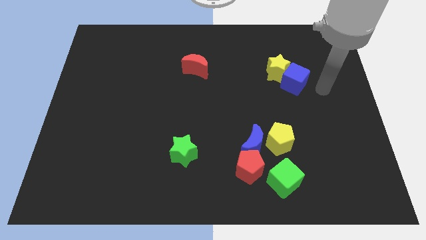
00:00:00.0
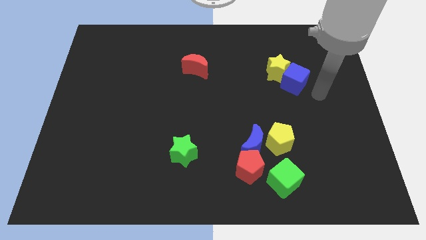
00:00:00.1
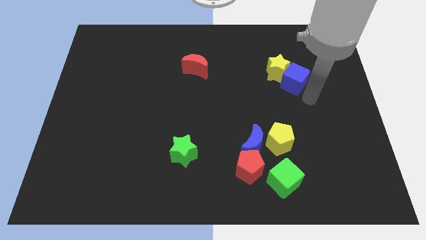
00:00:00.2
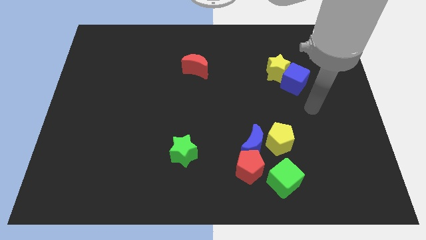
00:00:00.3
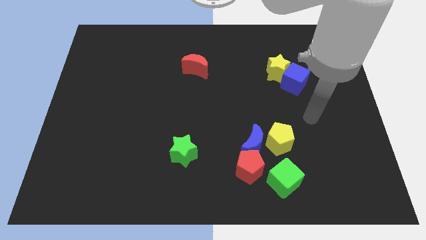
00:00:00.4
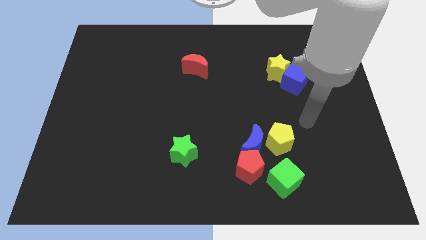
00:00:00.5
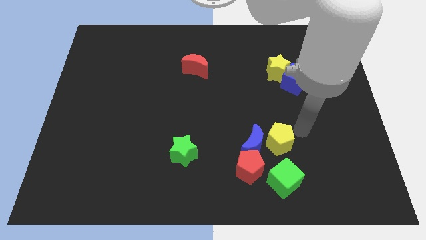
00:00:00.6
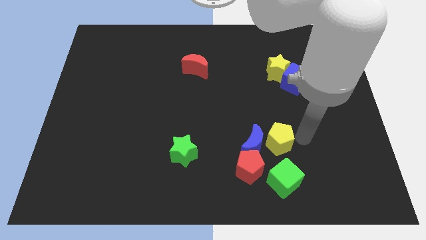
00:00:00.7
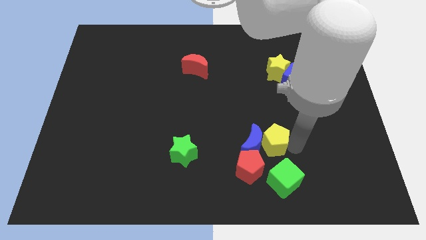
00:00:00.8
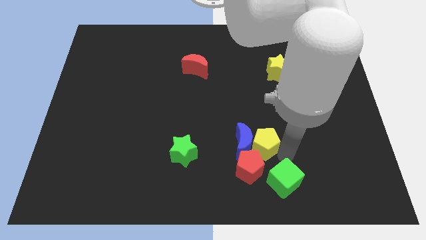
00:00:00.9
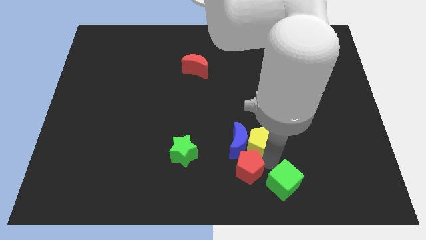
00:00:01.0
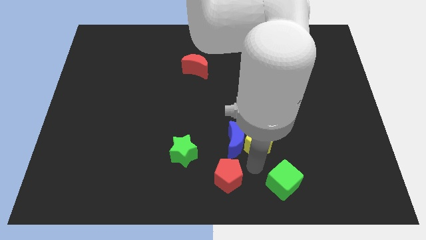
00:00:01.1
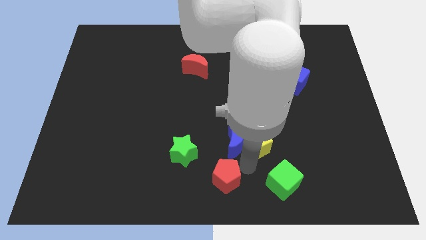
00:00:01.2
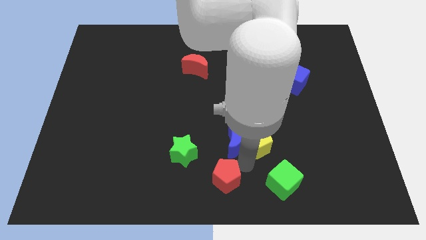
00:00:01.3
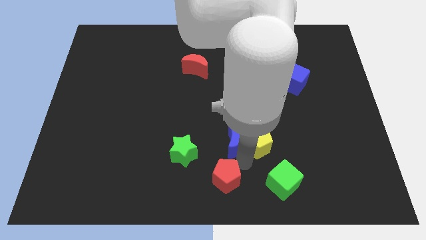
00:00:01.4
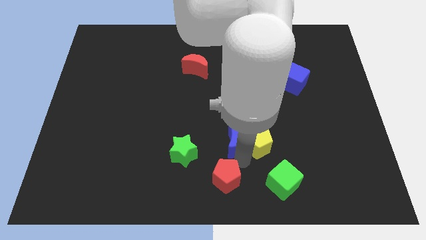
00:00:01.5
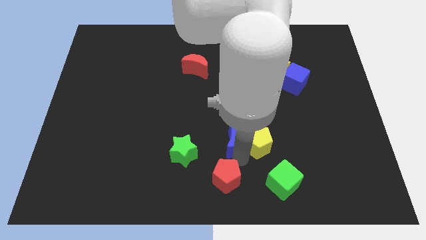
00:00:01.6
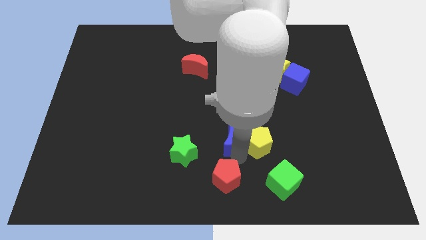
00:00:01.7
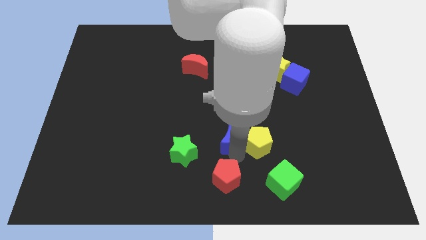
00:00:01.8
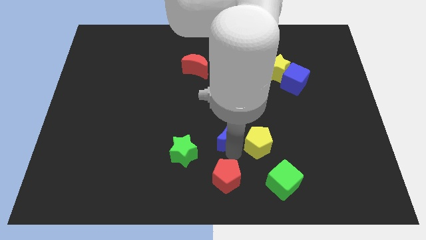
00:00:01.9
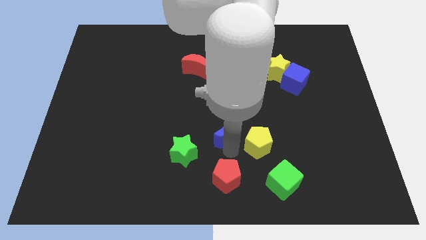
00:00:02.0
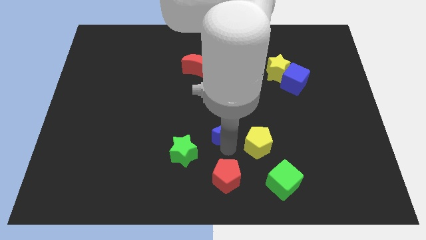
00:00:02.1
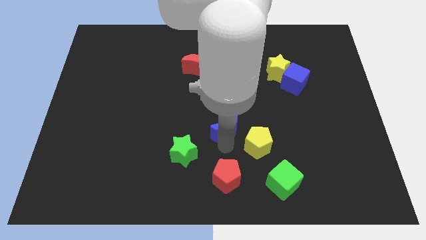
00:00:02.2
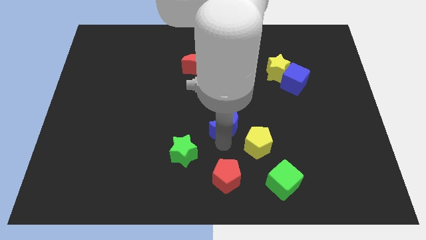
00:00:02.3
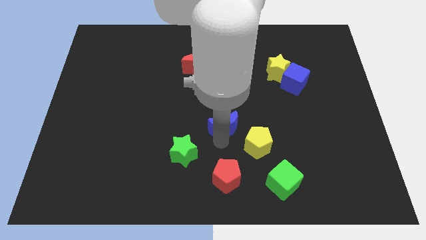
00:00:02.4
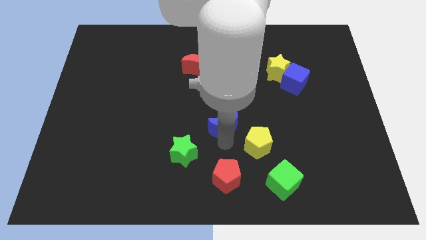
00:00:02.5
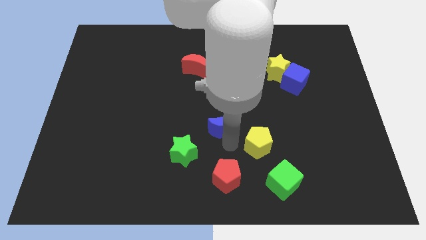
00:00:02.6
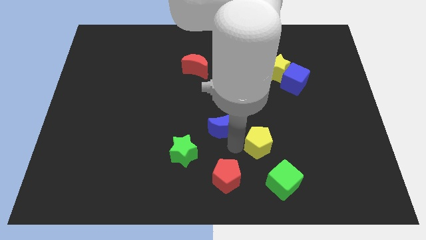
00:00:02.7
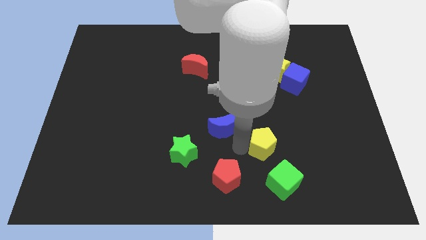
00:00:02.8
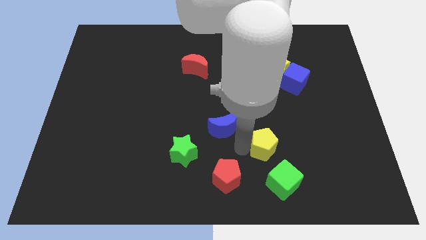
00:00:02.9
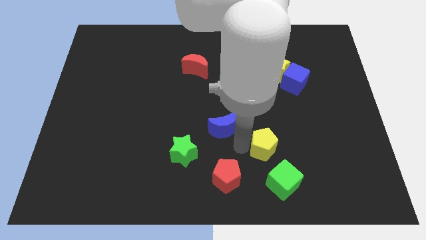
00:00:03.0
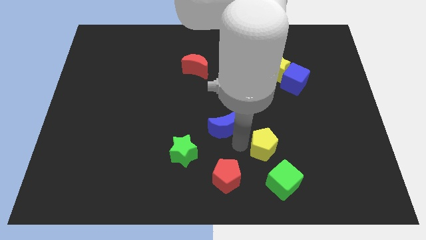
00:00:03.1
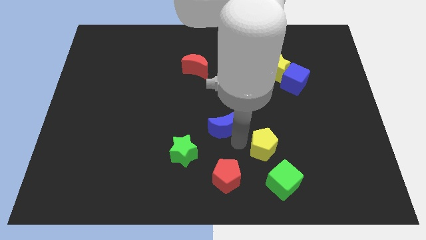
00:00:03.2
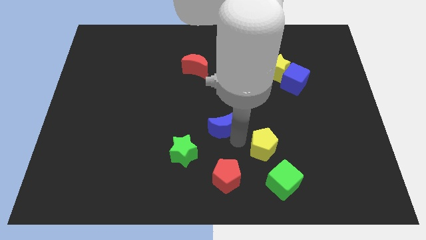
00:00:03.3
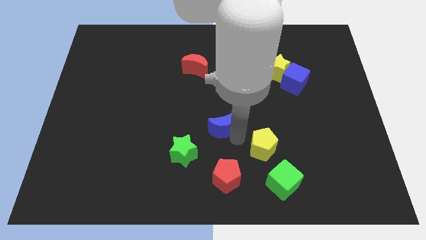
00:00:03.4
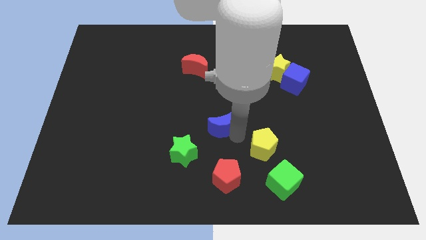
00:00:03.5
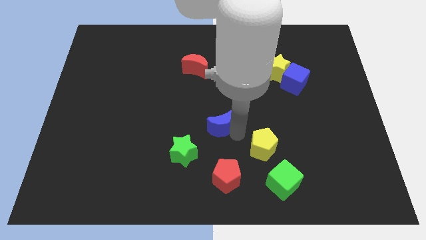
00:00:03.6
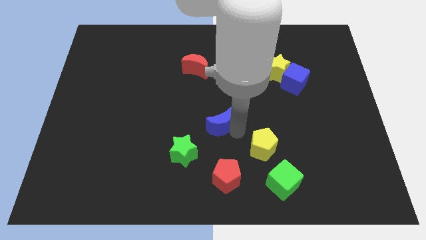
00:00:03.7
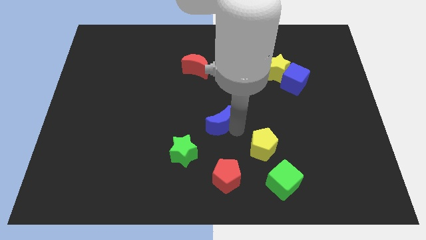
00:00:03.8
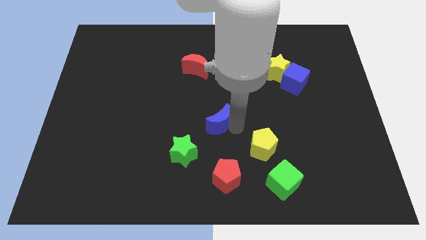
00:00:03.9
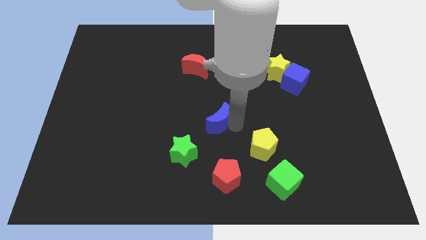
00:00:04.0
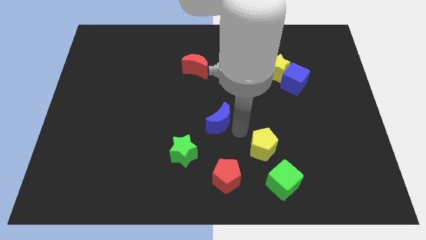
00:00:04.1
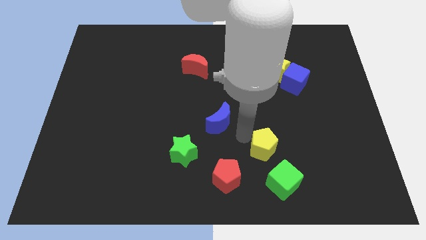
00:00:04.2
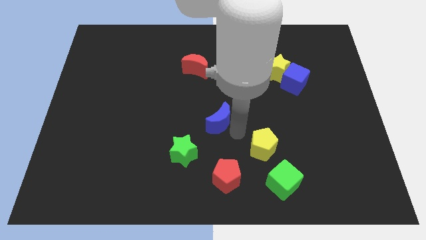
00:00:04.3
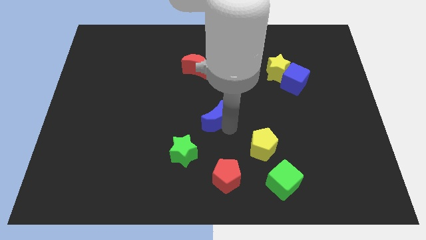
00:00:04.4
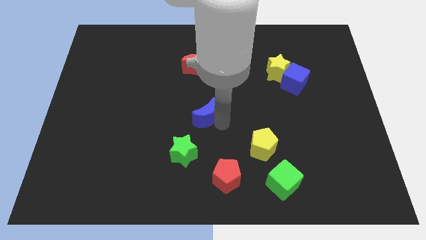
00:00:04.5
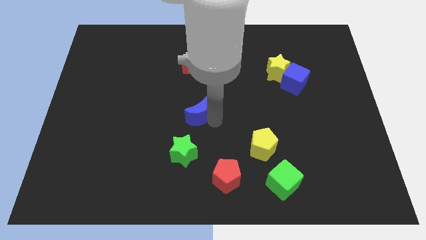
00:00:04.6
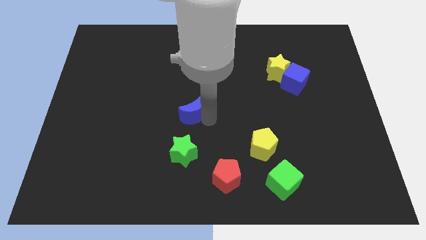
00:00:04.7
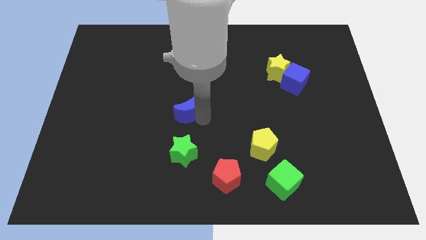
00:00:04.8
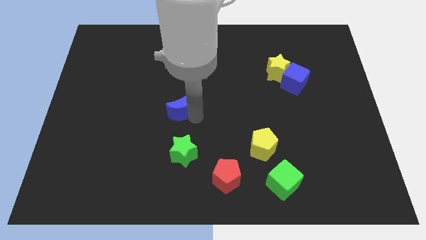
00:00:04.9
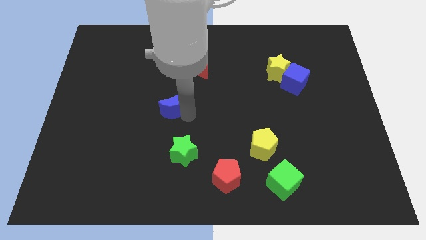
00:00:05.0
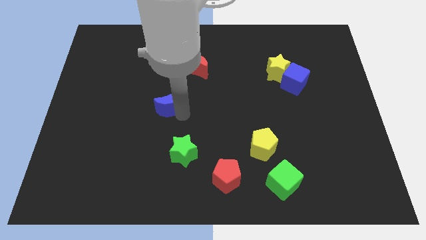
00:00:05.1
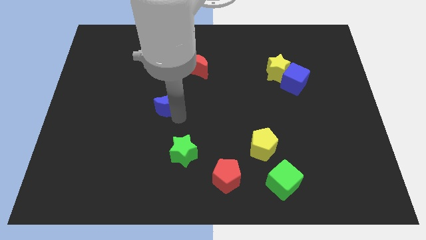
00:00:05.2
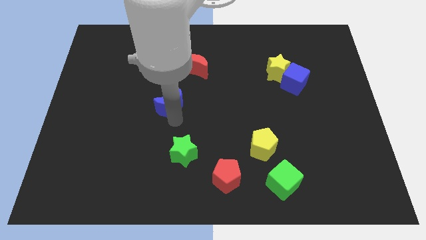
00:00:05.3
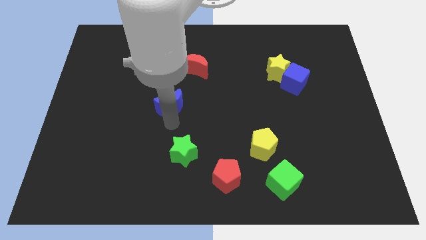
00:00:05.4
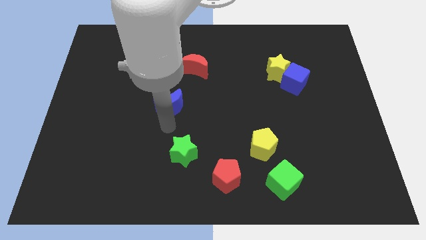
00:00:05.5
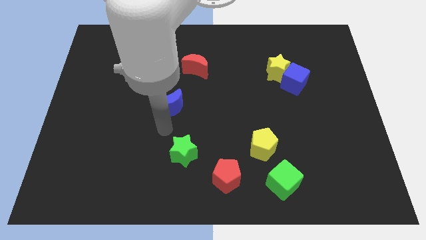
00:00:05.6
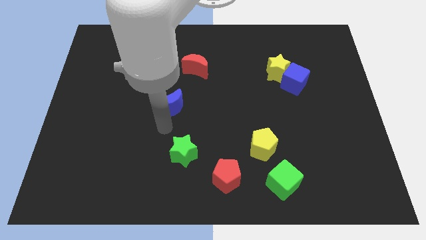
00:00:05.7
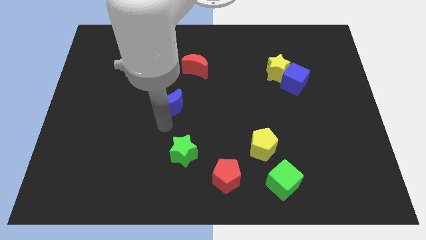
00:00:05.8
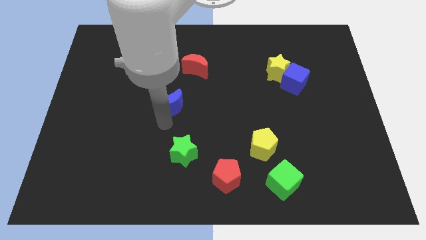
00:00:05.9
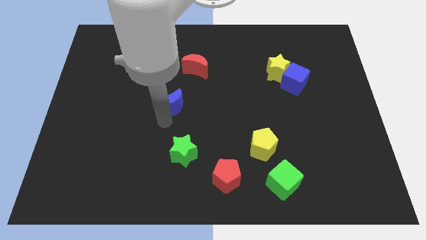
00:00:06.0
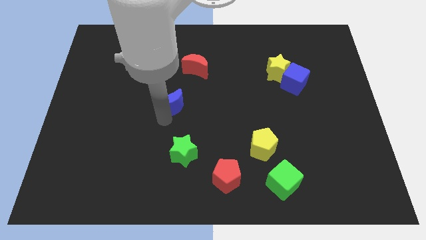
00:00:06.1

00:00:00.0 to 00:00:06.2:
move the blue moon up and then left

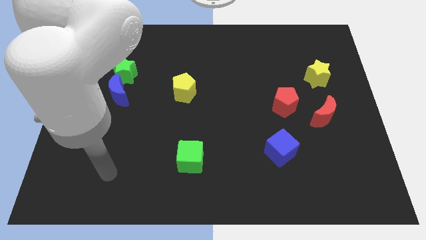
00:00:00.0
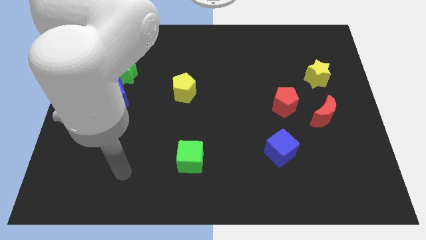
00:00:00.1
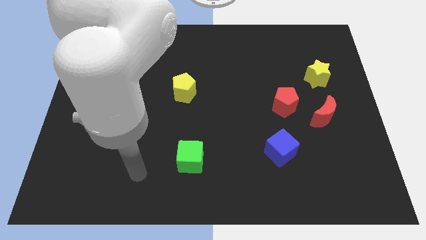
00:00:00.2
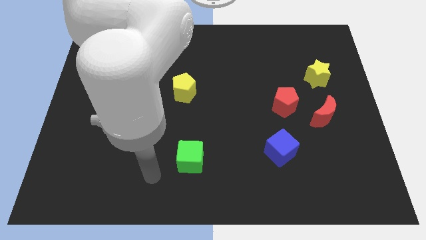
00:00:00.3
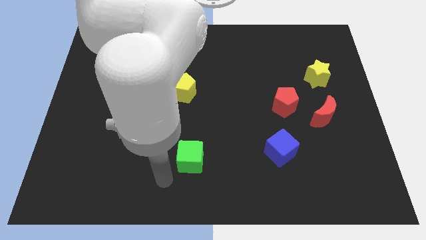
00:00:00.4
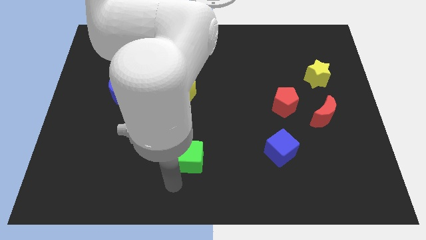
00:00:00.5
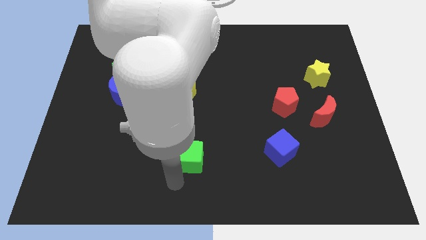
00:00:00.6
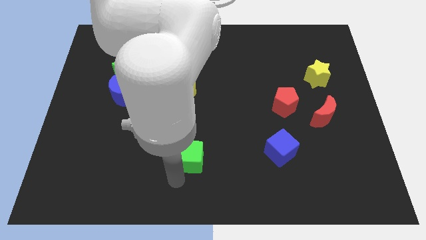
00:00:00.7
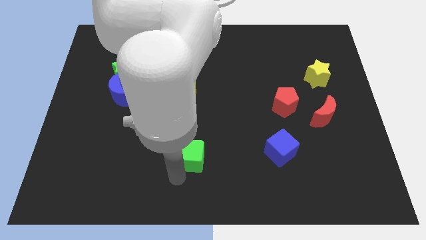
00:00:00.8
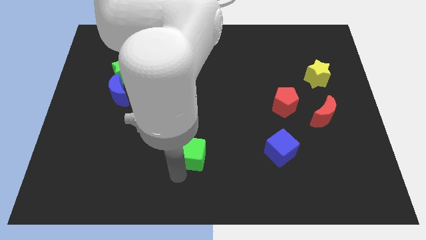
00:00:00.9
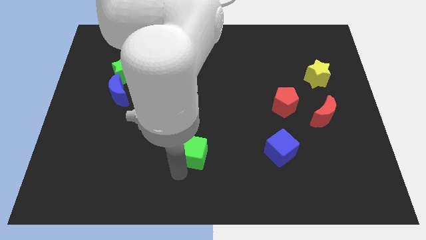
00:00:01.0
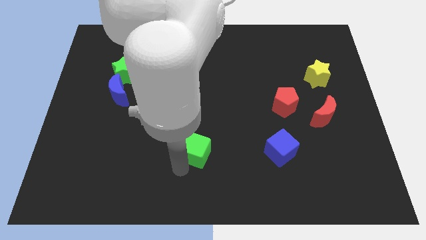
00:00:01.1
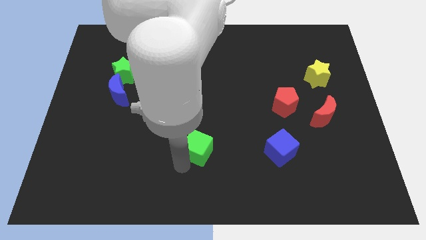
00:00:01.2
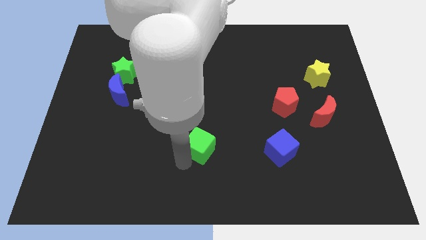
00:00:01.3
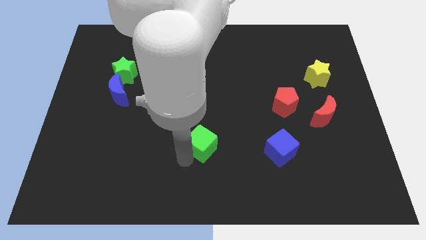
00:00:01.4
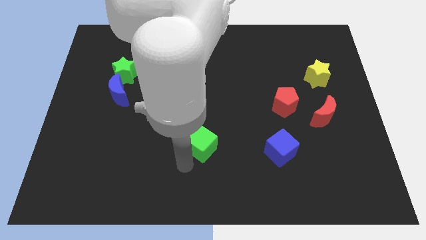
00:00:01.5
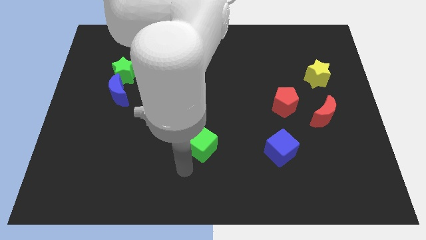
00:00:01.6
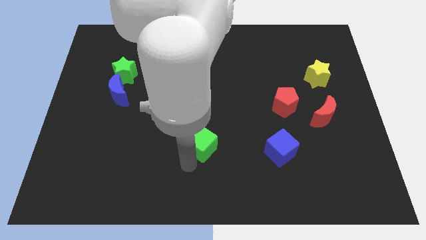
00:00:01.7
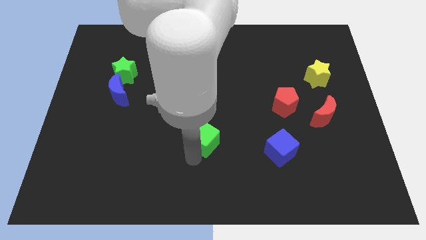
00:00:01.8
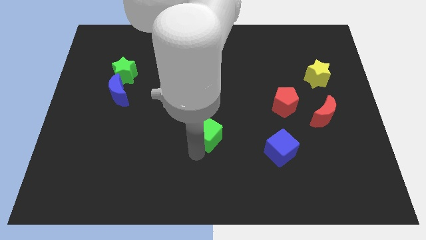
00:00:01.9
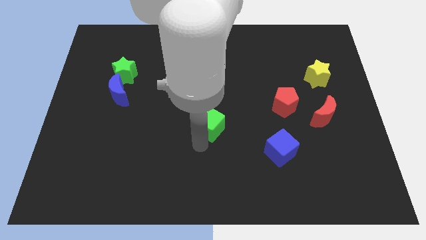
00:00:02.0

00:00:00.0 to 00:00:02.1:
slide the green cube somewhat diagonally upwards and right
